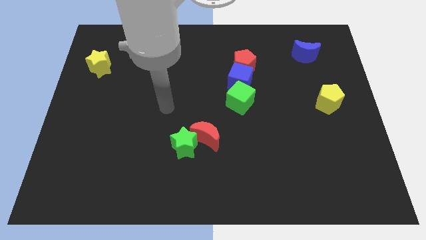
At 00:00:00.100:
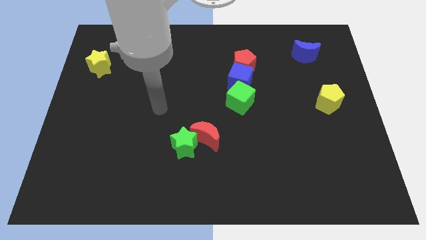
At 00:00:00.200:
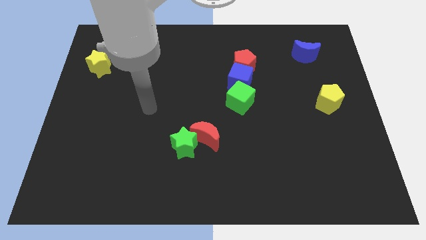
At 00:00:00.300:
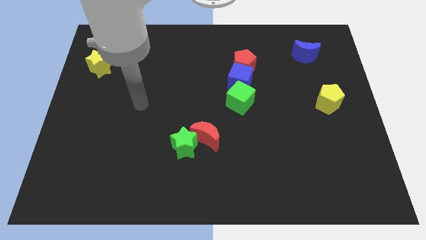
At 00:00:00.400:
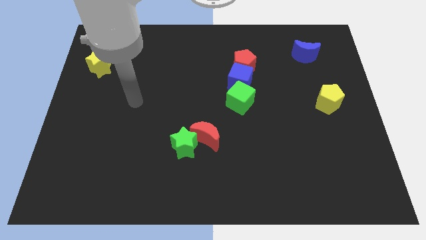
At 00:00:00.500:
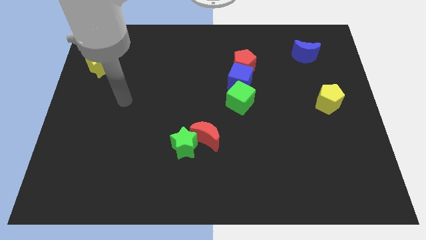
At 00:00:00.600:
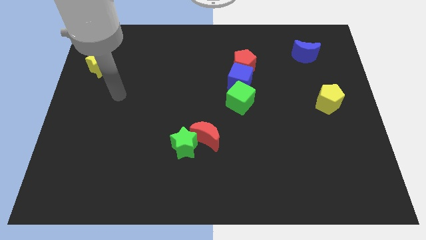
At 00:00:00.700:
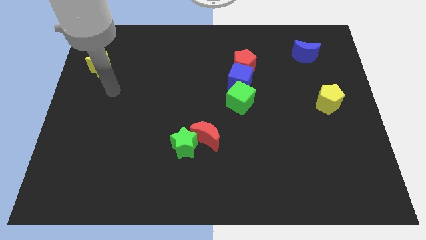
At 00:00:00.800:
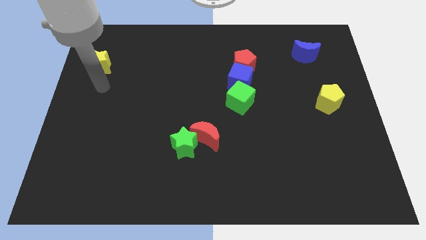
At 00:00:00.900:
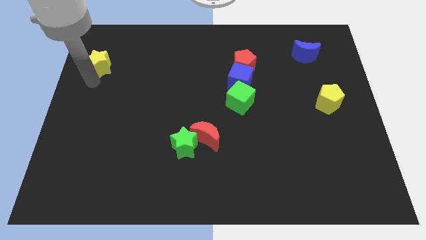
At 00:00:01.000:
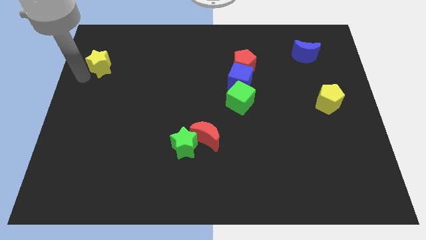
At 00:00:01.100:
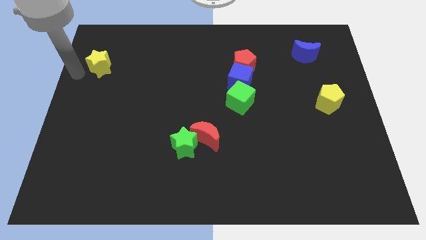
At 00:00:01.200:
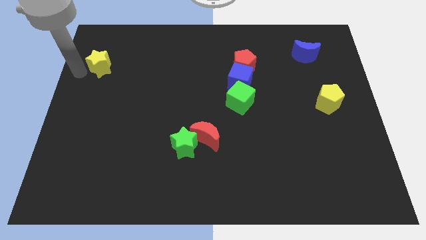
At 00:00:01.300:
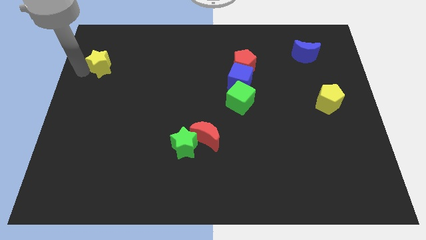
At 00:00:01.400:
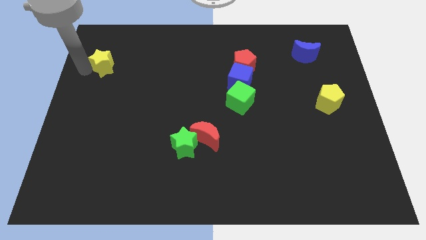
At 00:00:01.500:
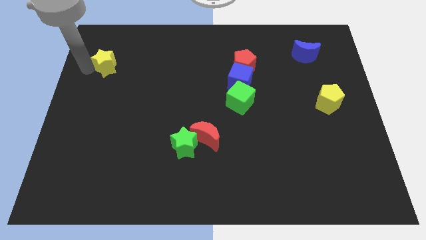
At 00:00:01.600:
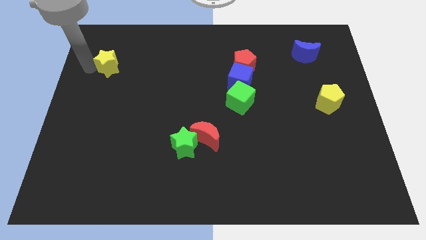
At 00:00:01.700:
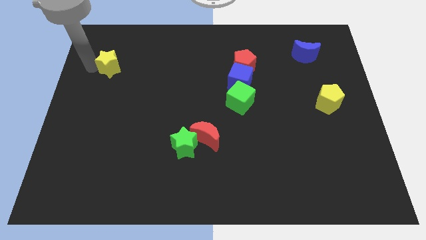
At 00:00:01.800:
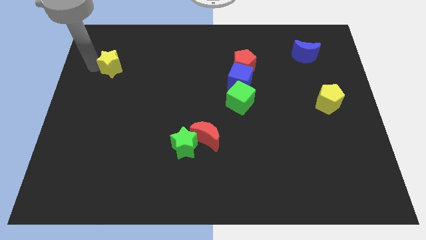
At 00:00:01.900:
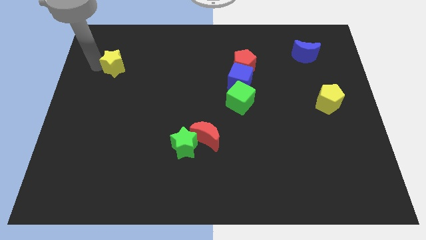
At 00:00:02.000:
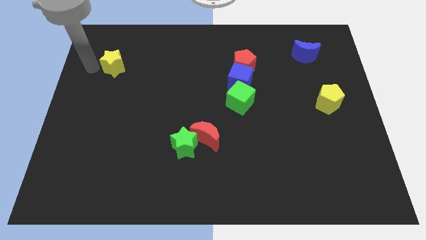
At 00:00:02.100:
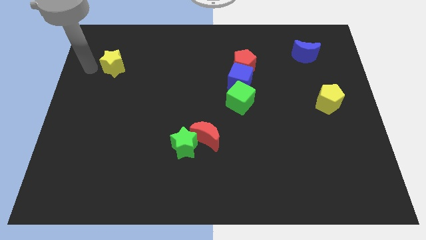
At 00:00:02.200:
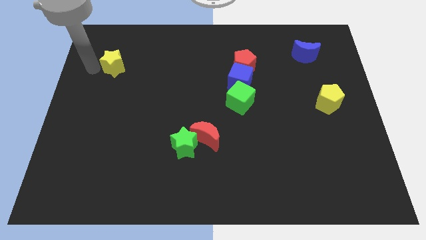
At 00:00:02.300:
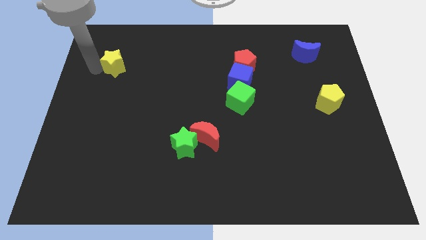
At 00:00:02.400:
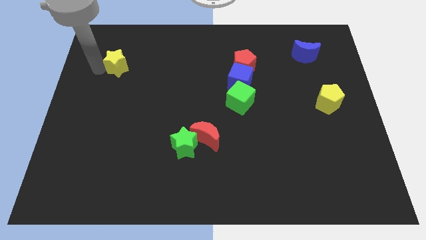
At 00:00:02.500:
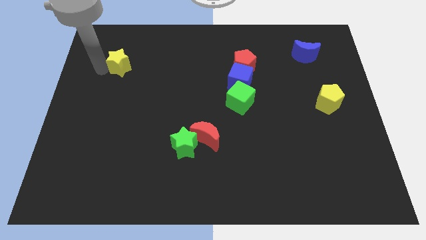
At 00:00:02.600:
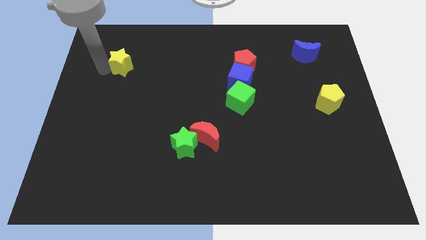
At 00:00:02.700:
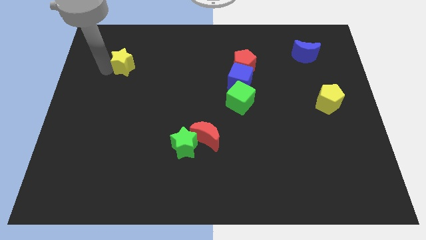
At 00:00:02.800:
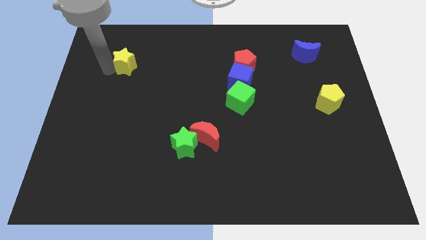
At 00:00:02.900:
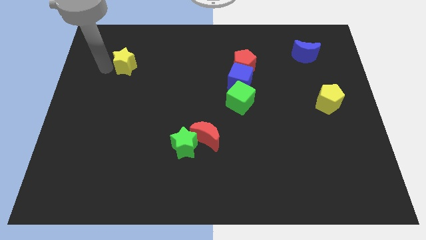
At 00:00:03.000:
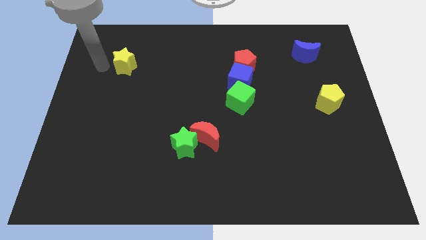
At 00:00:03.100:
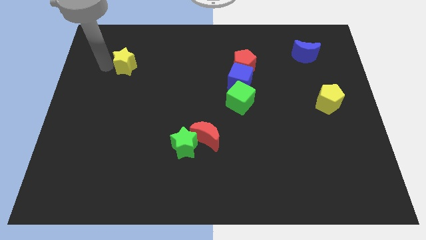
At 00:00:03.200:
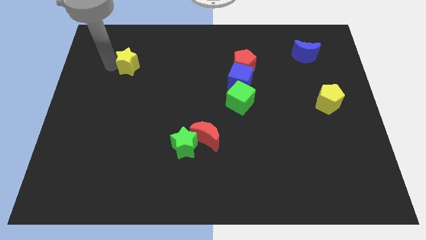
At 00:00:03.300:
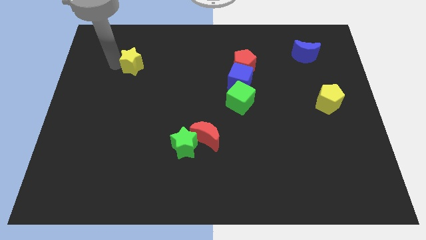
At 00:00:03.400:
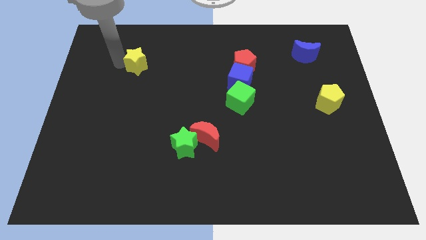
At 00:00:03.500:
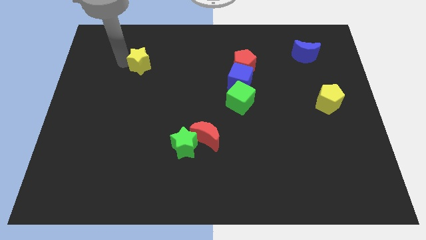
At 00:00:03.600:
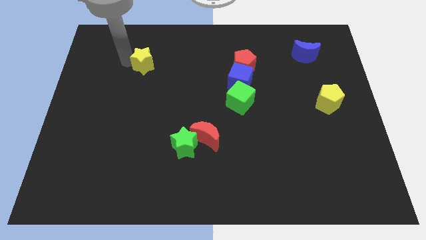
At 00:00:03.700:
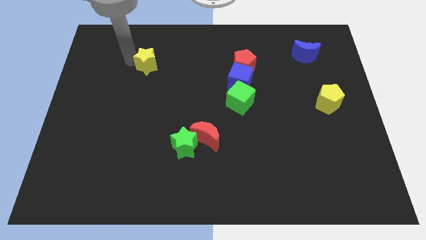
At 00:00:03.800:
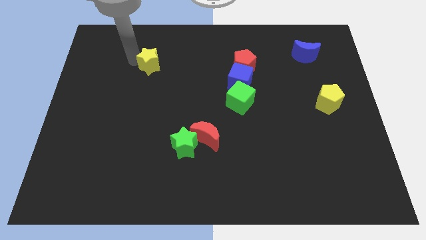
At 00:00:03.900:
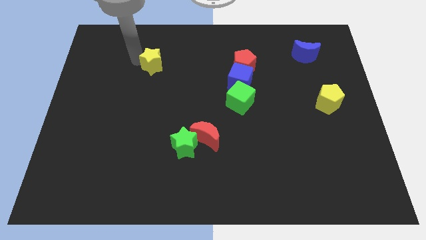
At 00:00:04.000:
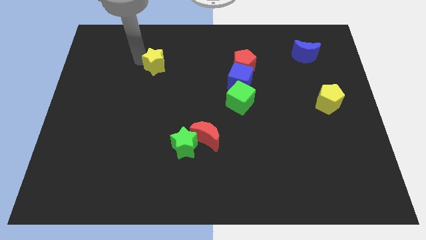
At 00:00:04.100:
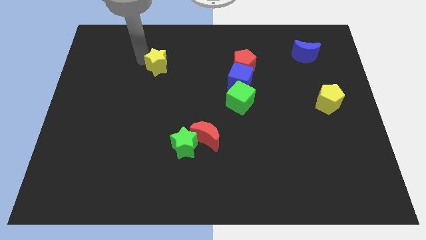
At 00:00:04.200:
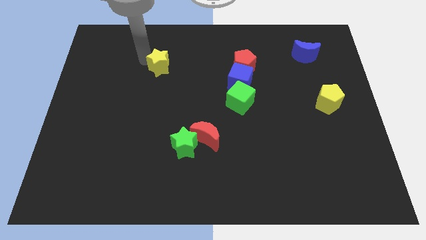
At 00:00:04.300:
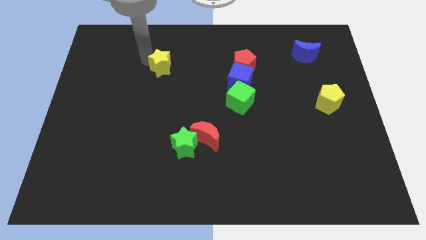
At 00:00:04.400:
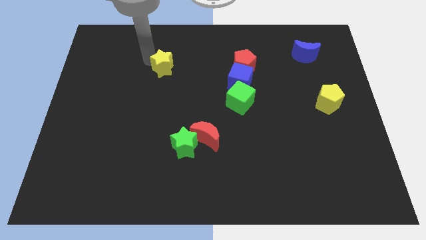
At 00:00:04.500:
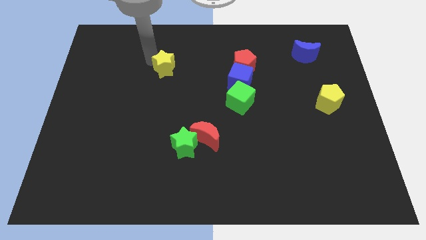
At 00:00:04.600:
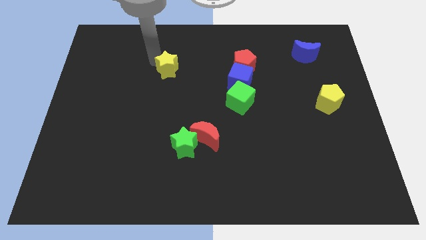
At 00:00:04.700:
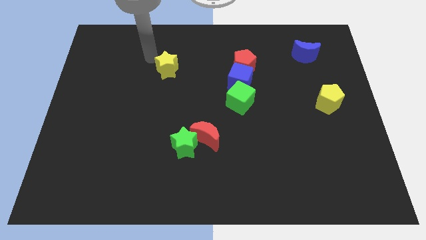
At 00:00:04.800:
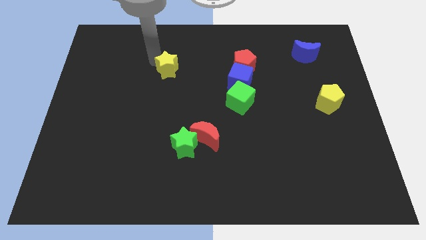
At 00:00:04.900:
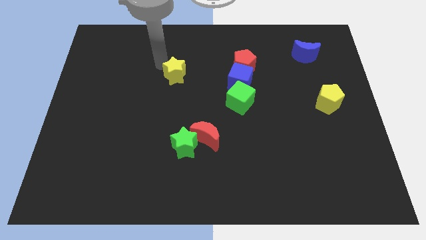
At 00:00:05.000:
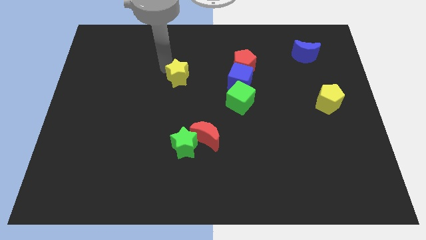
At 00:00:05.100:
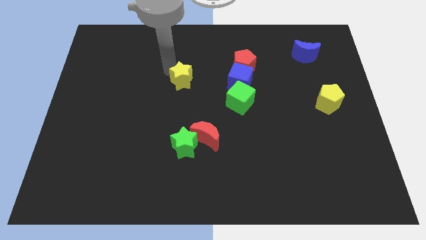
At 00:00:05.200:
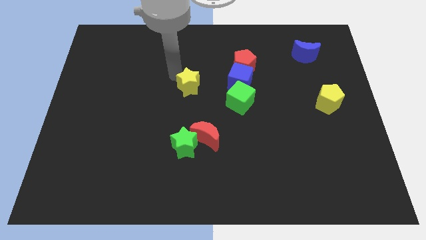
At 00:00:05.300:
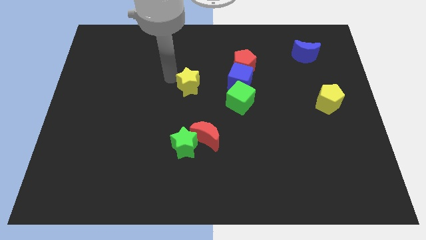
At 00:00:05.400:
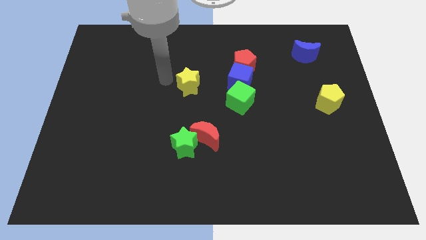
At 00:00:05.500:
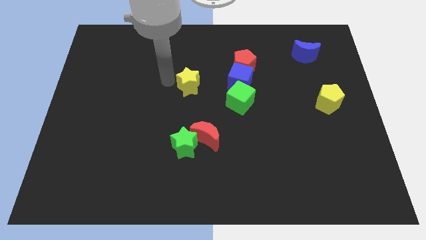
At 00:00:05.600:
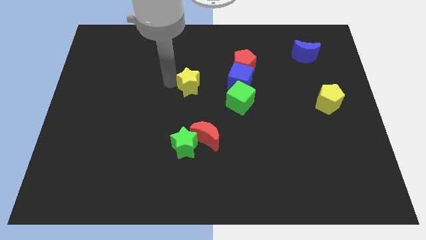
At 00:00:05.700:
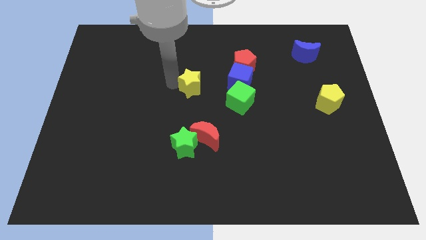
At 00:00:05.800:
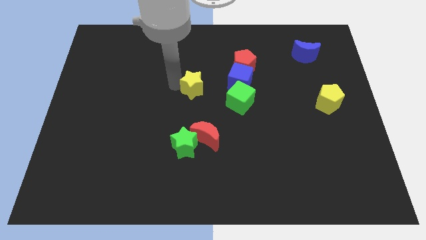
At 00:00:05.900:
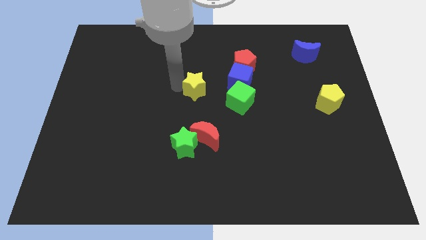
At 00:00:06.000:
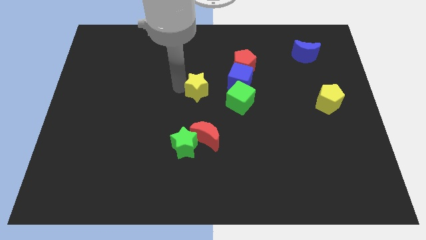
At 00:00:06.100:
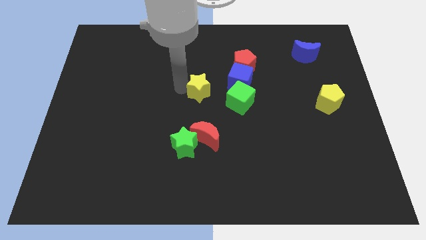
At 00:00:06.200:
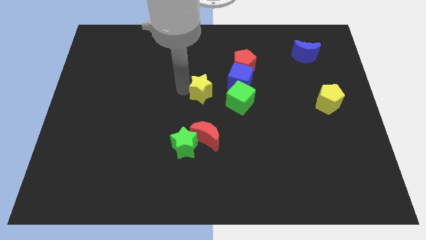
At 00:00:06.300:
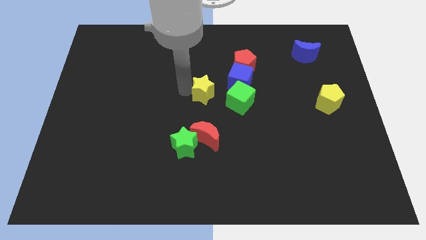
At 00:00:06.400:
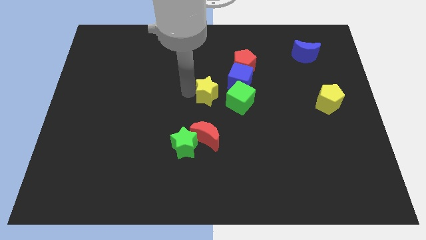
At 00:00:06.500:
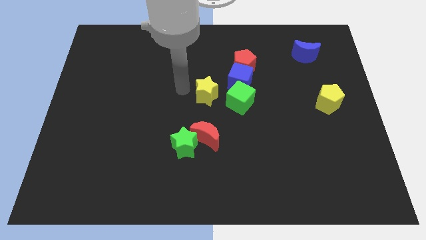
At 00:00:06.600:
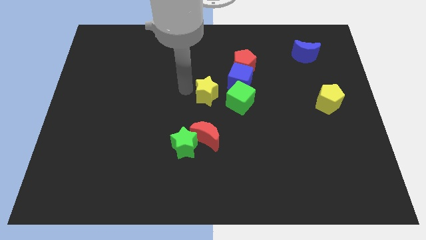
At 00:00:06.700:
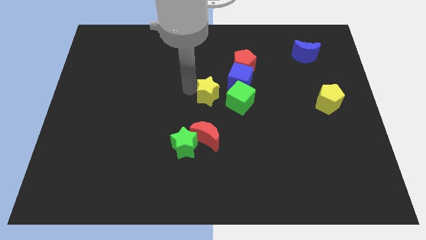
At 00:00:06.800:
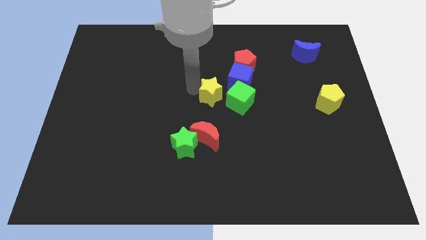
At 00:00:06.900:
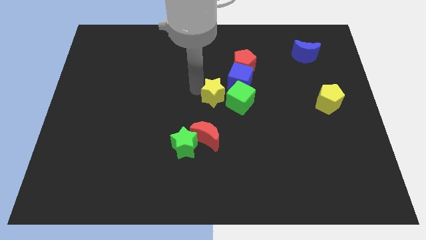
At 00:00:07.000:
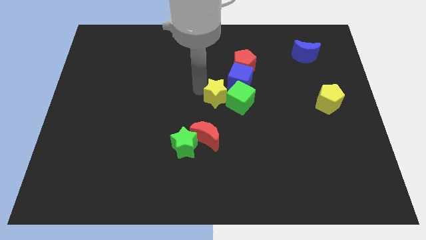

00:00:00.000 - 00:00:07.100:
slide the yellow star towards the green cube
